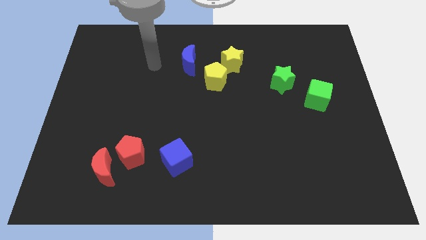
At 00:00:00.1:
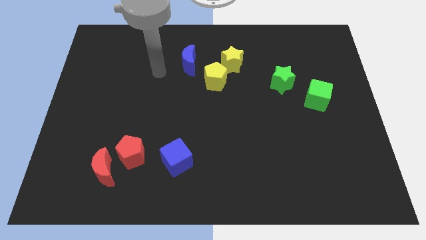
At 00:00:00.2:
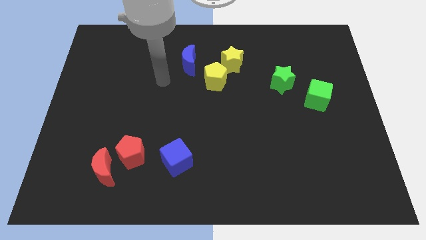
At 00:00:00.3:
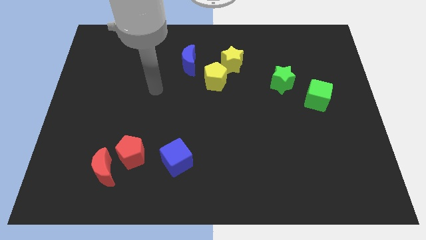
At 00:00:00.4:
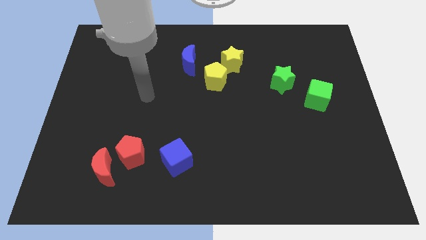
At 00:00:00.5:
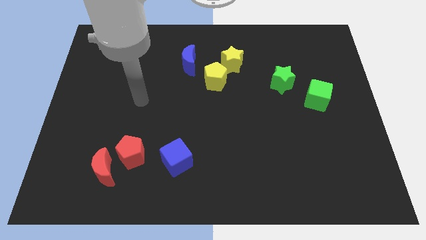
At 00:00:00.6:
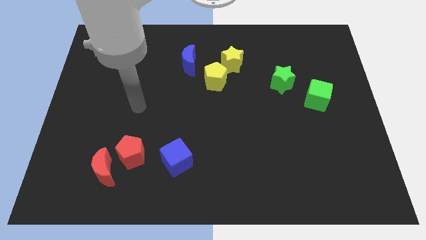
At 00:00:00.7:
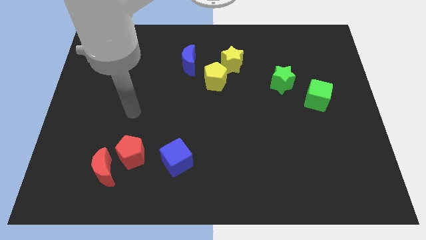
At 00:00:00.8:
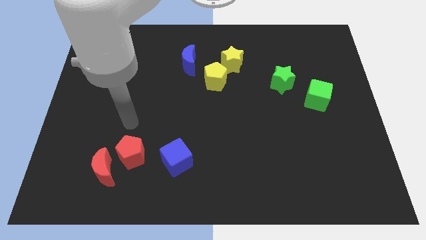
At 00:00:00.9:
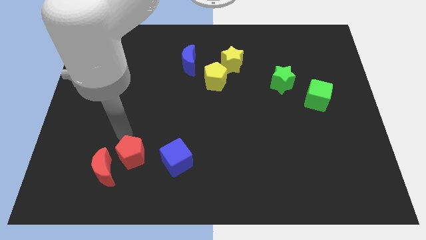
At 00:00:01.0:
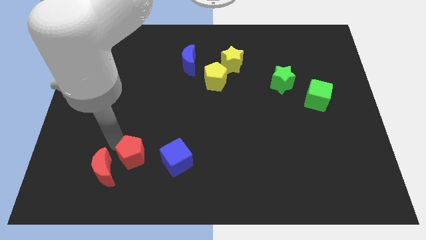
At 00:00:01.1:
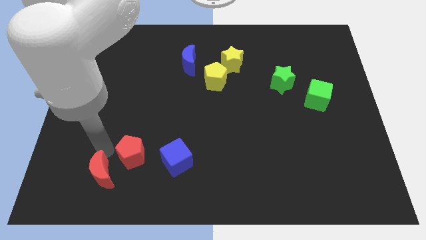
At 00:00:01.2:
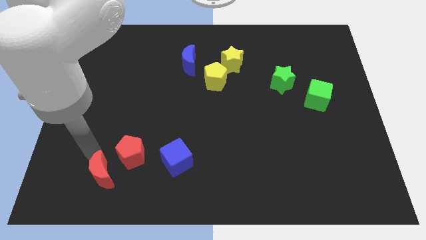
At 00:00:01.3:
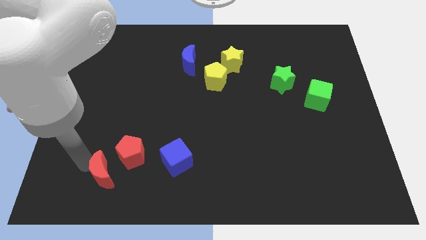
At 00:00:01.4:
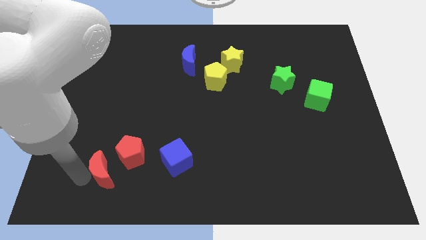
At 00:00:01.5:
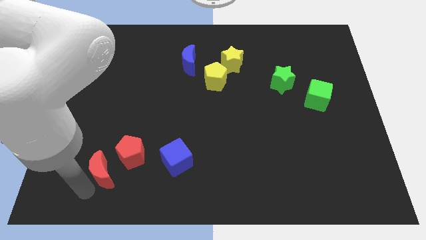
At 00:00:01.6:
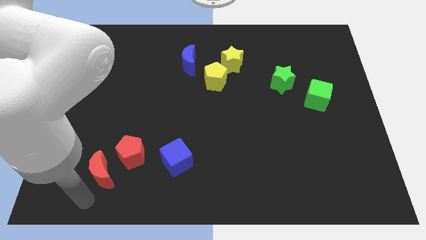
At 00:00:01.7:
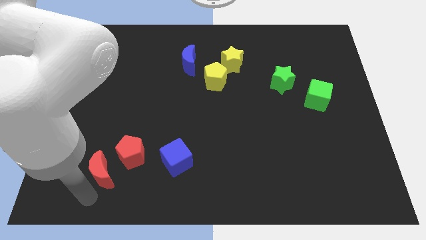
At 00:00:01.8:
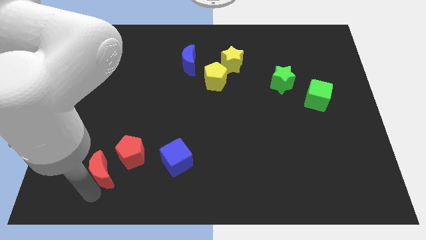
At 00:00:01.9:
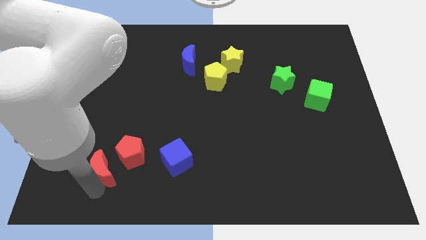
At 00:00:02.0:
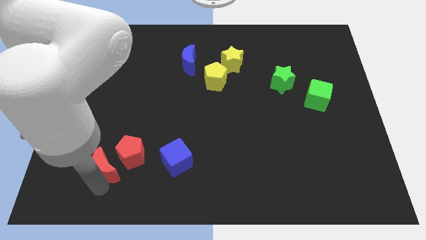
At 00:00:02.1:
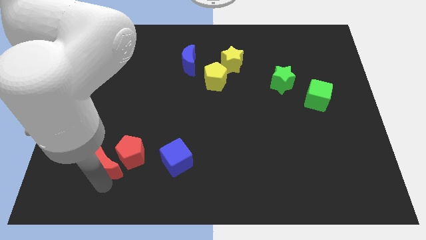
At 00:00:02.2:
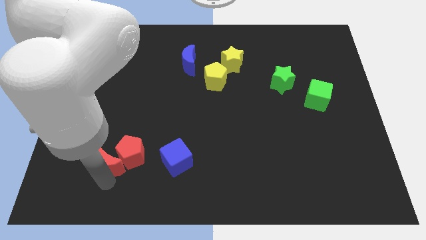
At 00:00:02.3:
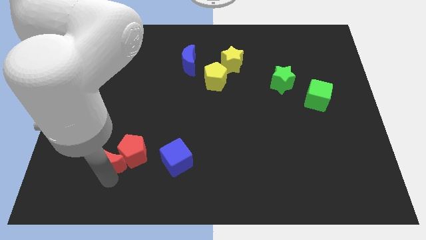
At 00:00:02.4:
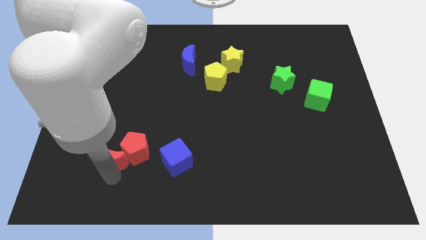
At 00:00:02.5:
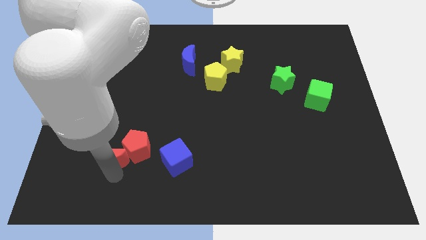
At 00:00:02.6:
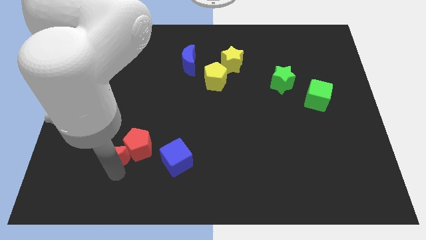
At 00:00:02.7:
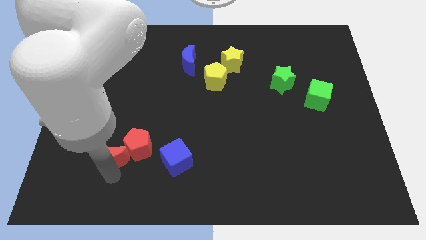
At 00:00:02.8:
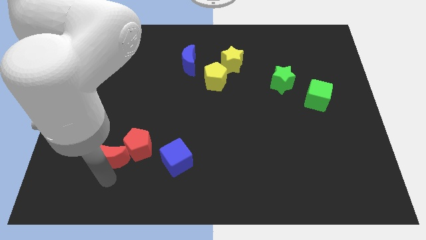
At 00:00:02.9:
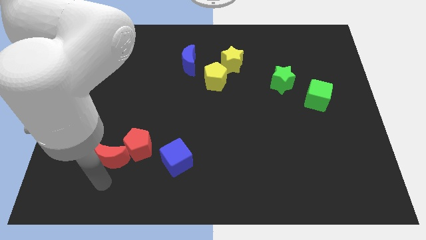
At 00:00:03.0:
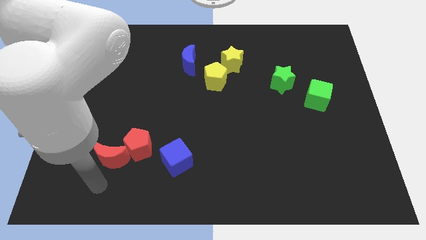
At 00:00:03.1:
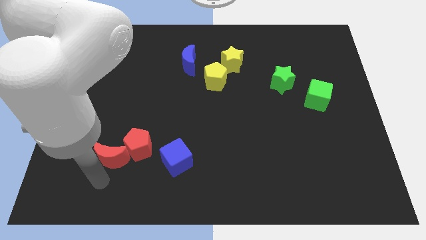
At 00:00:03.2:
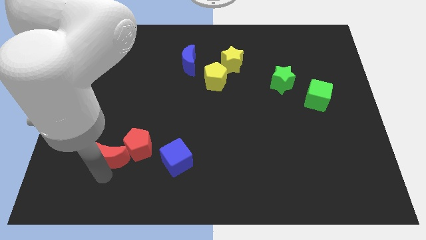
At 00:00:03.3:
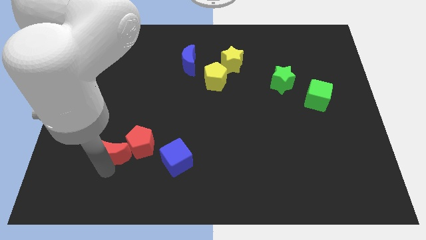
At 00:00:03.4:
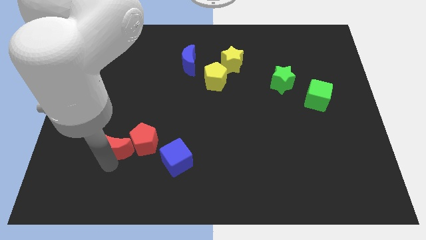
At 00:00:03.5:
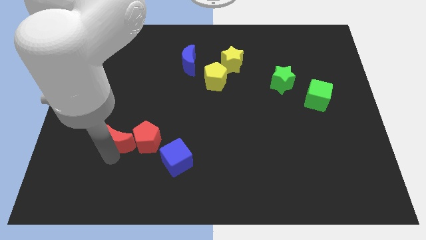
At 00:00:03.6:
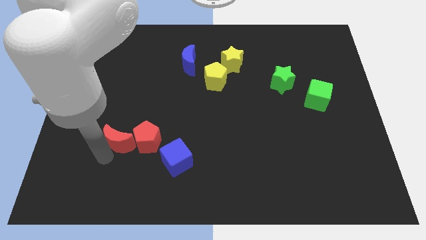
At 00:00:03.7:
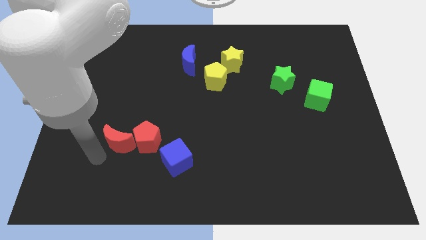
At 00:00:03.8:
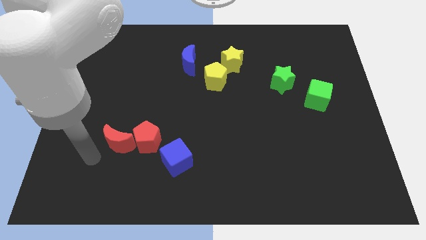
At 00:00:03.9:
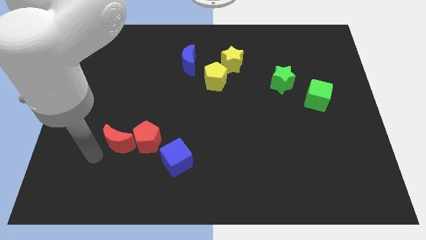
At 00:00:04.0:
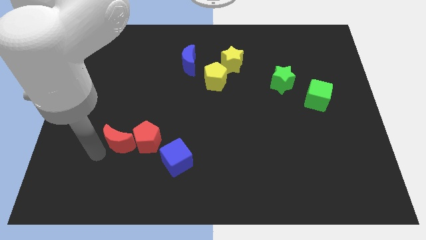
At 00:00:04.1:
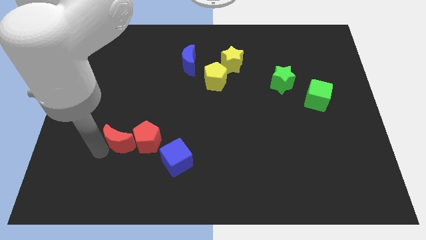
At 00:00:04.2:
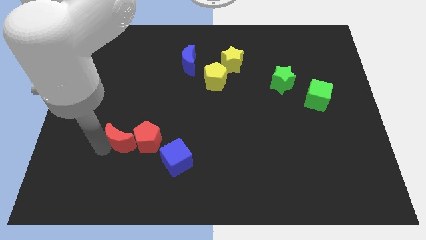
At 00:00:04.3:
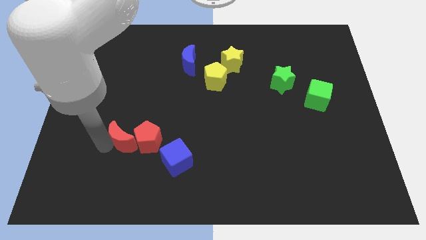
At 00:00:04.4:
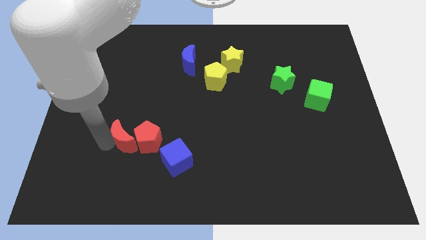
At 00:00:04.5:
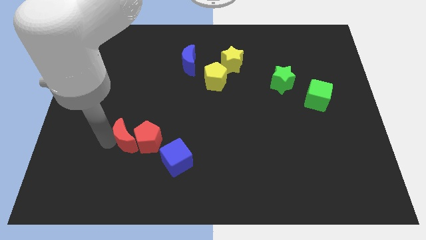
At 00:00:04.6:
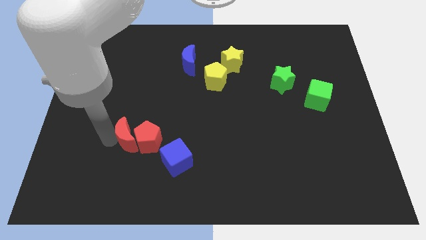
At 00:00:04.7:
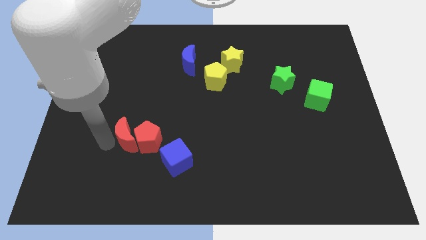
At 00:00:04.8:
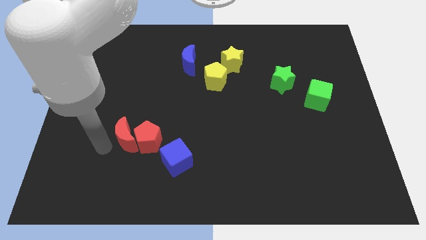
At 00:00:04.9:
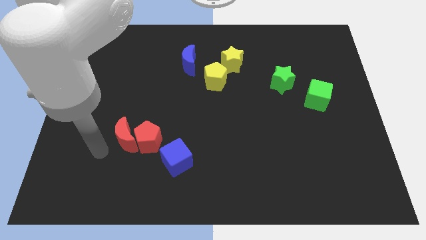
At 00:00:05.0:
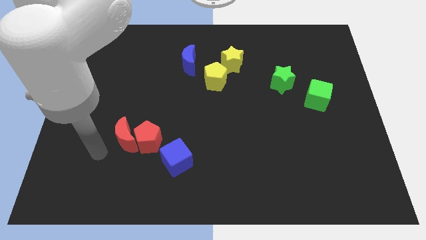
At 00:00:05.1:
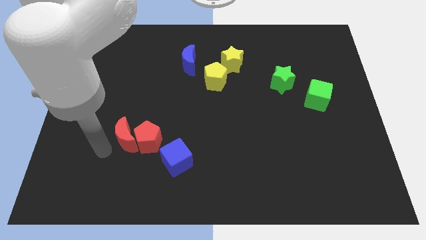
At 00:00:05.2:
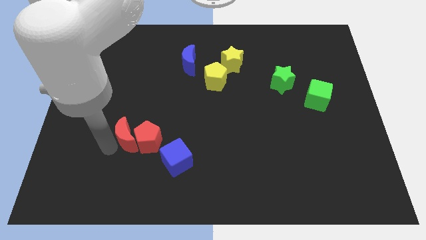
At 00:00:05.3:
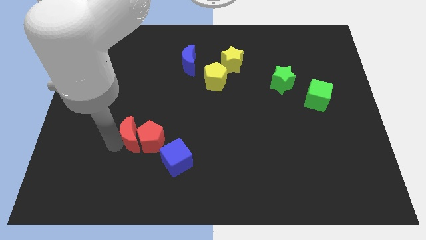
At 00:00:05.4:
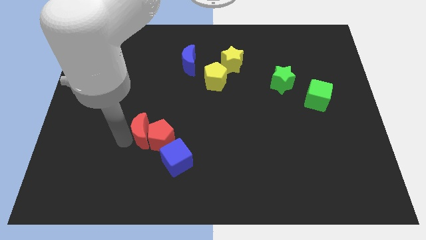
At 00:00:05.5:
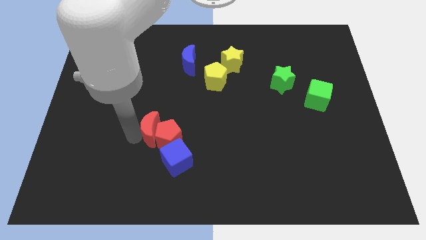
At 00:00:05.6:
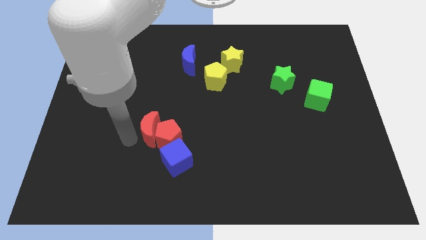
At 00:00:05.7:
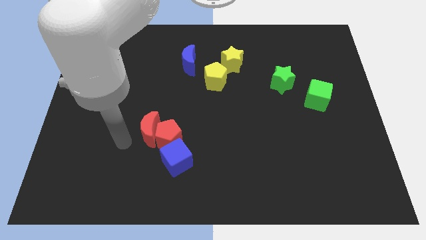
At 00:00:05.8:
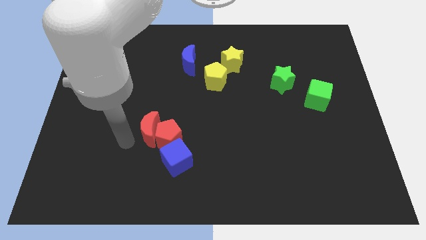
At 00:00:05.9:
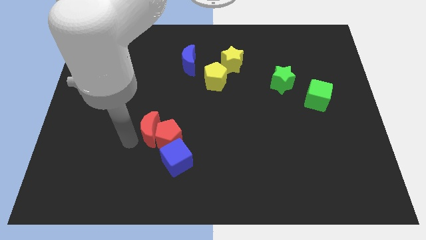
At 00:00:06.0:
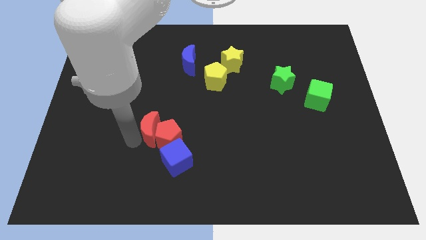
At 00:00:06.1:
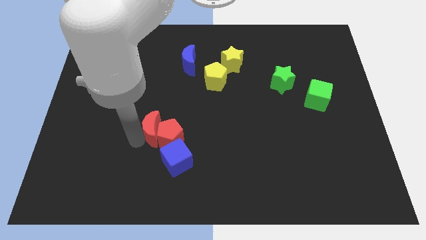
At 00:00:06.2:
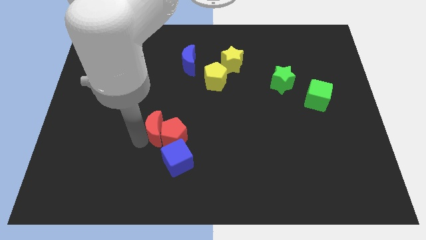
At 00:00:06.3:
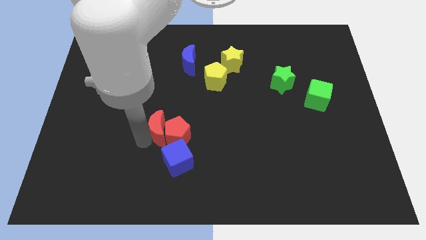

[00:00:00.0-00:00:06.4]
push the red moon above the blue cube
